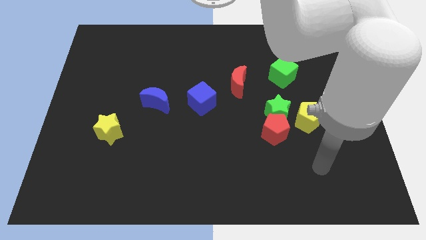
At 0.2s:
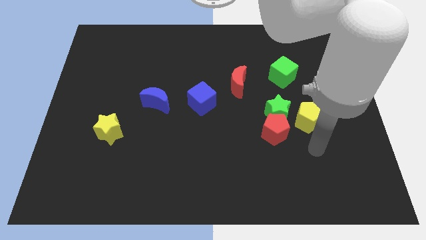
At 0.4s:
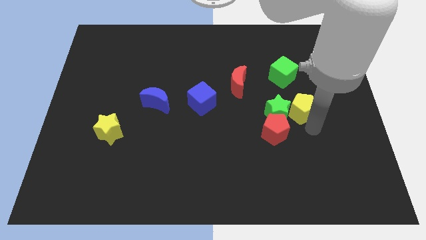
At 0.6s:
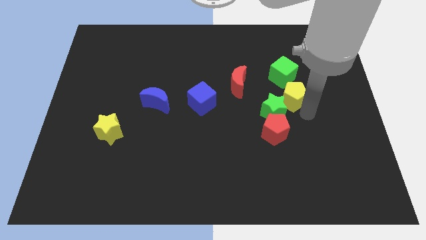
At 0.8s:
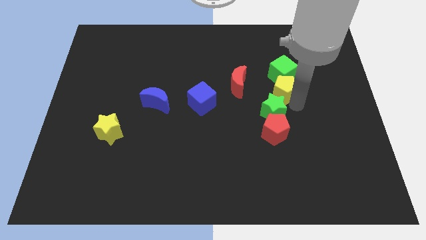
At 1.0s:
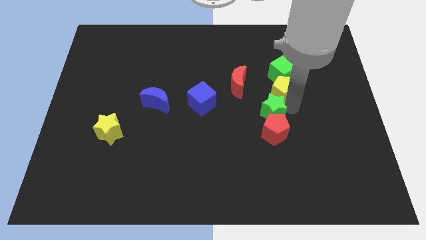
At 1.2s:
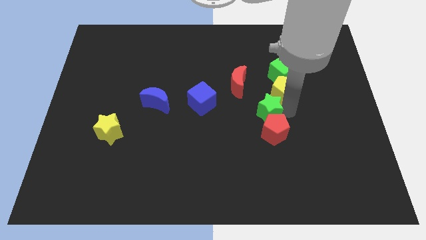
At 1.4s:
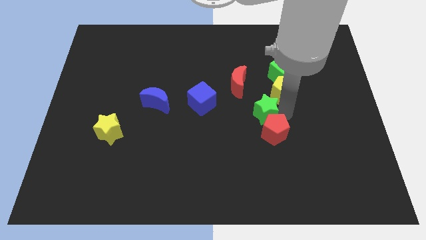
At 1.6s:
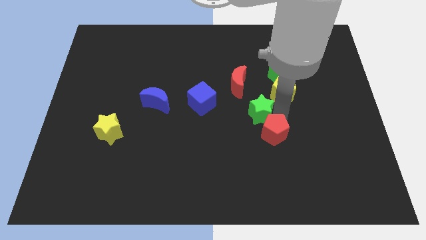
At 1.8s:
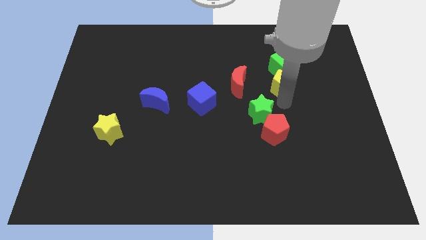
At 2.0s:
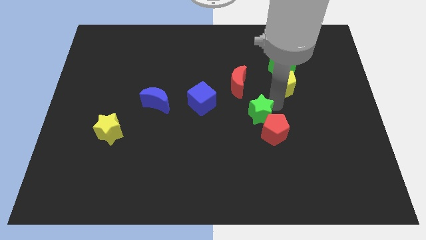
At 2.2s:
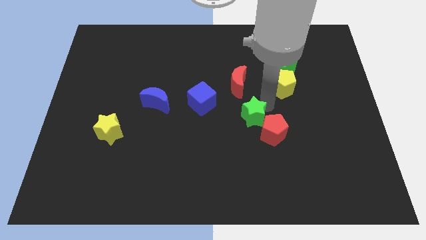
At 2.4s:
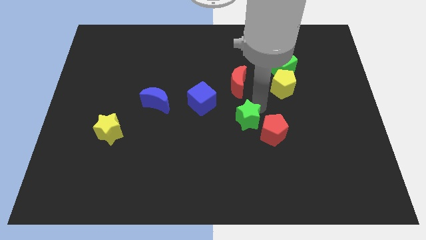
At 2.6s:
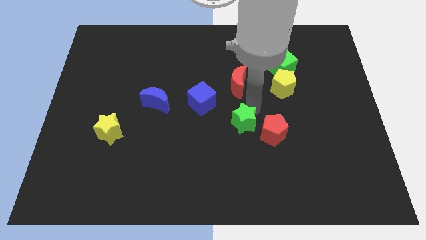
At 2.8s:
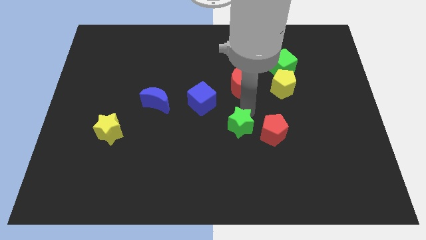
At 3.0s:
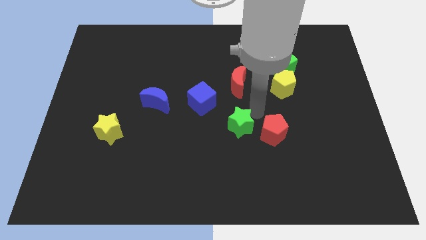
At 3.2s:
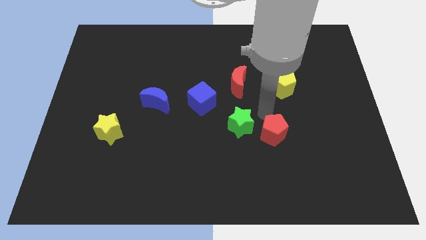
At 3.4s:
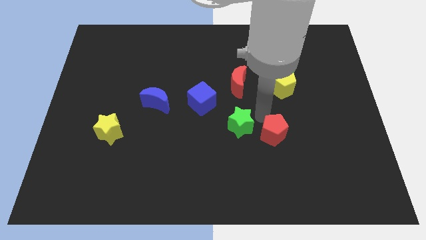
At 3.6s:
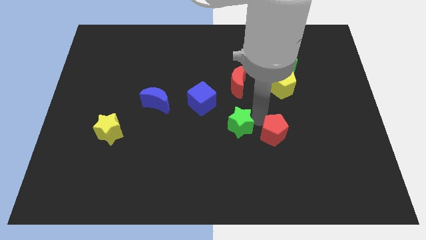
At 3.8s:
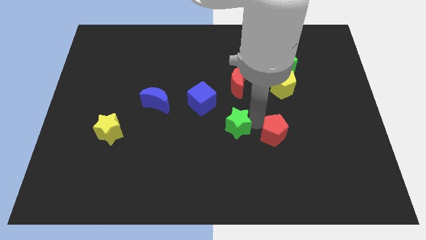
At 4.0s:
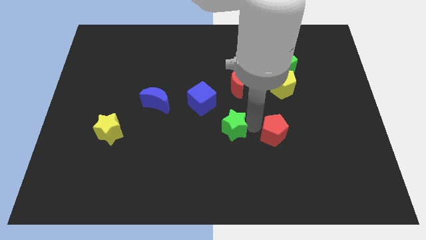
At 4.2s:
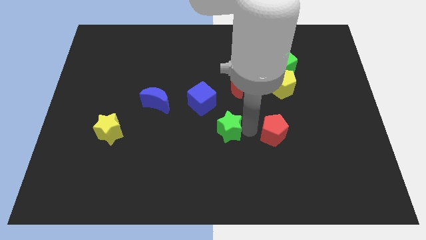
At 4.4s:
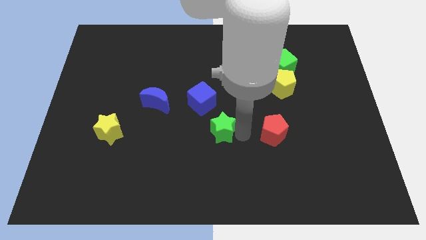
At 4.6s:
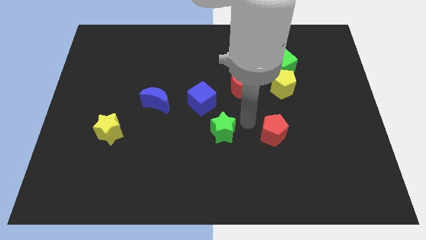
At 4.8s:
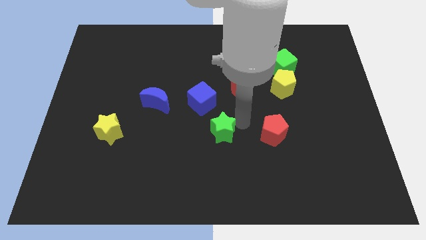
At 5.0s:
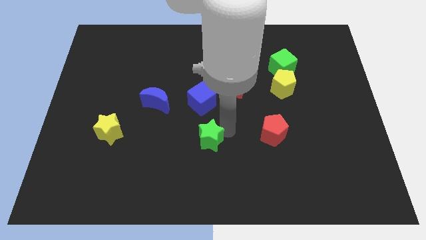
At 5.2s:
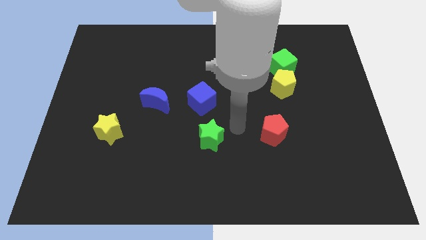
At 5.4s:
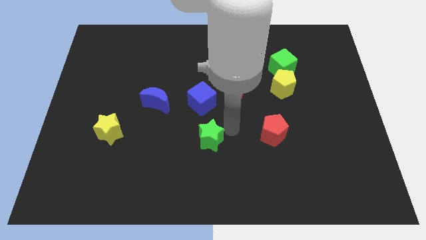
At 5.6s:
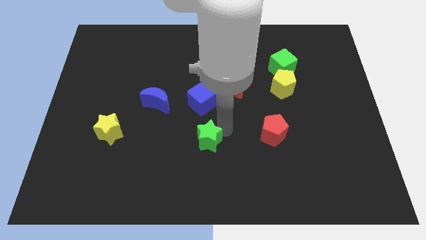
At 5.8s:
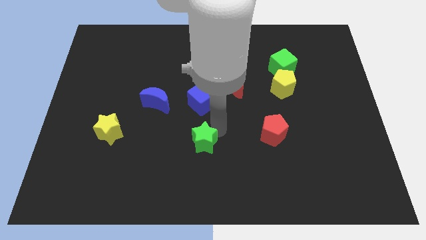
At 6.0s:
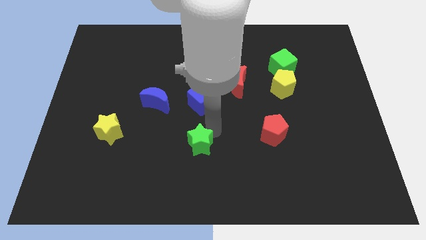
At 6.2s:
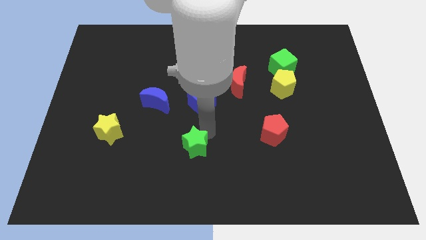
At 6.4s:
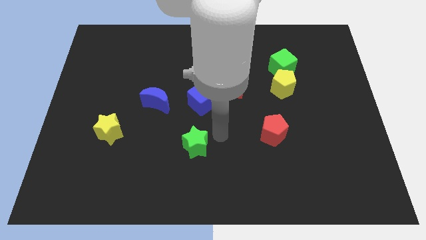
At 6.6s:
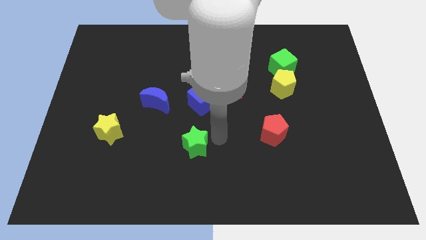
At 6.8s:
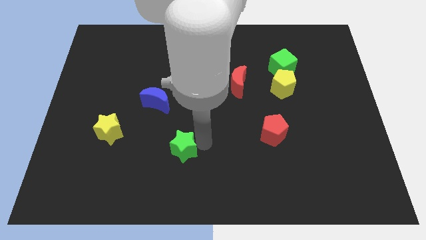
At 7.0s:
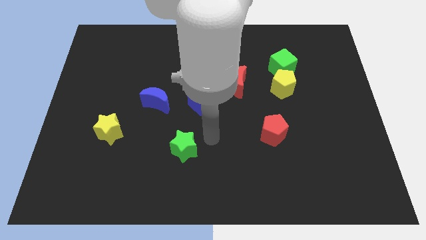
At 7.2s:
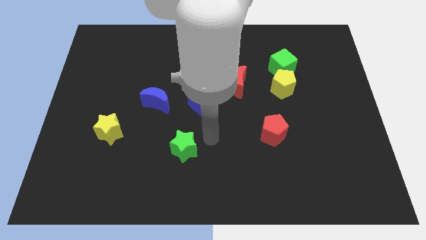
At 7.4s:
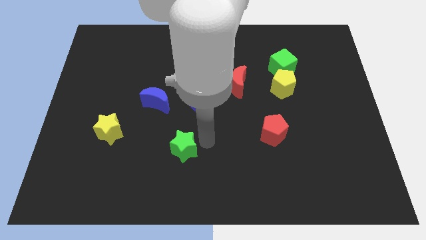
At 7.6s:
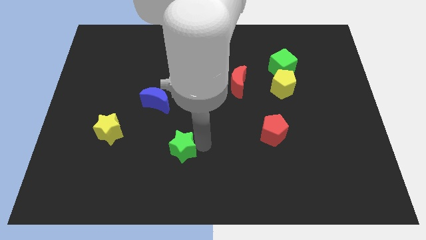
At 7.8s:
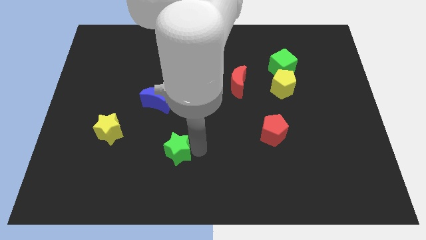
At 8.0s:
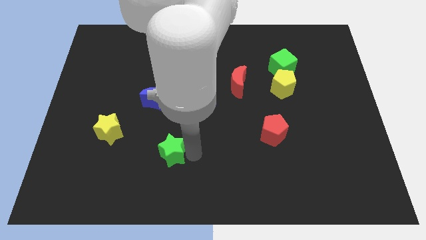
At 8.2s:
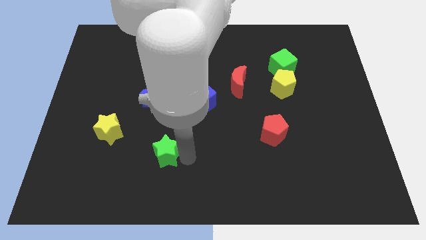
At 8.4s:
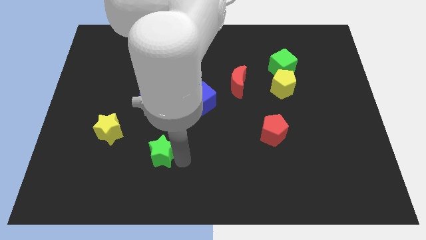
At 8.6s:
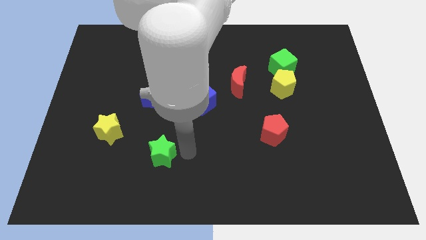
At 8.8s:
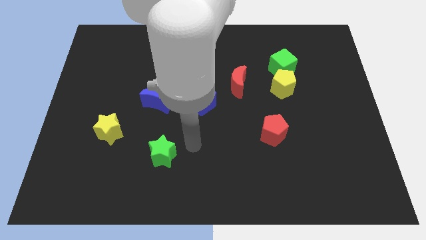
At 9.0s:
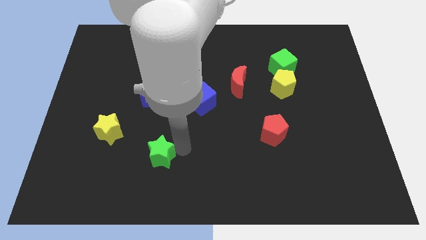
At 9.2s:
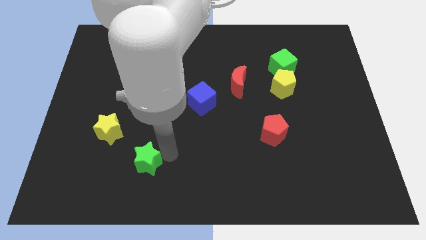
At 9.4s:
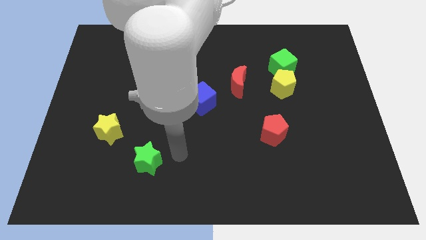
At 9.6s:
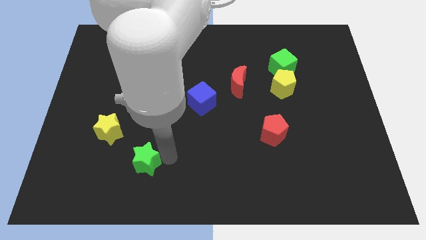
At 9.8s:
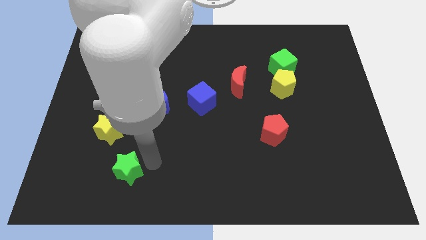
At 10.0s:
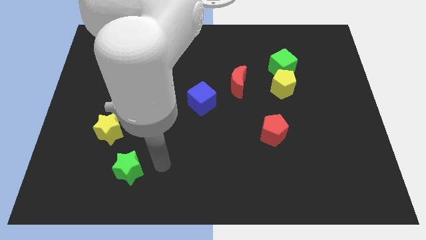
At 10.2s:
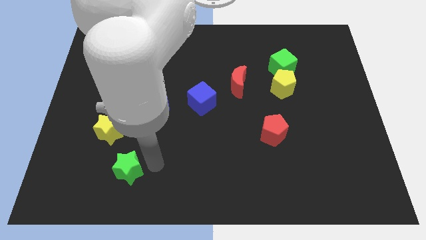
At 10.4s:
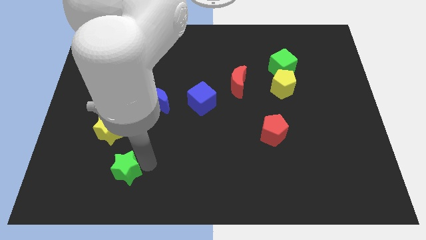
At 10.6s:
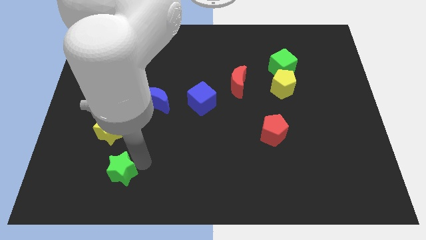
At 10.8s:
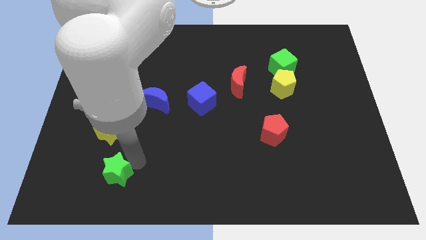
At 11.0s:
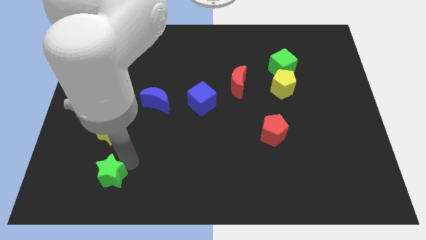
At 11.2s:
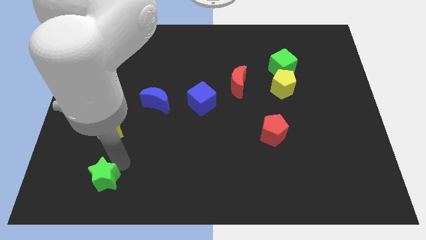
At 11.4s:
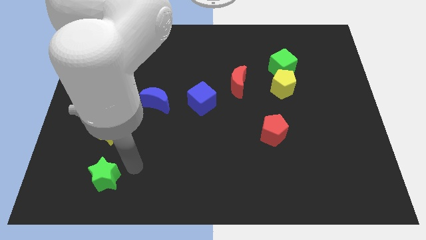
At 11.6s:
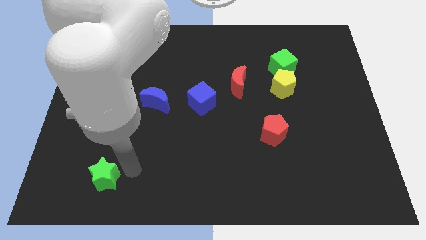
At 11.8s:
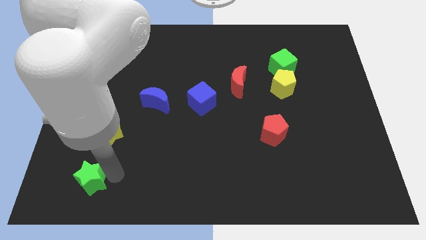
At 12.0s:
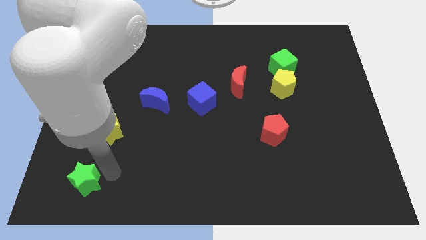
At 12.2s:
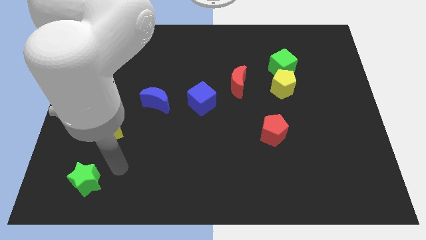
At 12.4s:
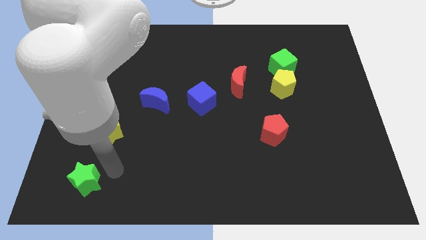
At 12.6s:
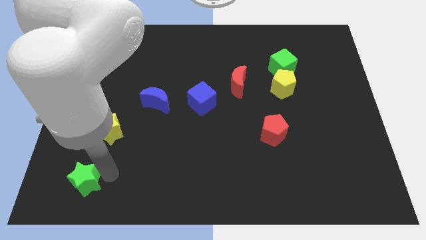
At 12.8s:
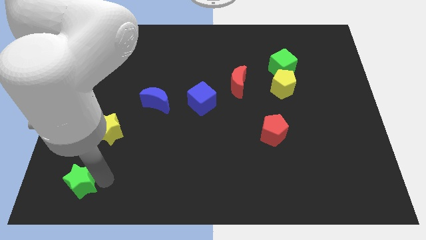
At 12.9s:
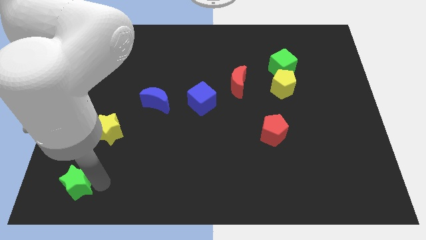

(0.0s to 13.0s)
slide the green star to the bottom left corner
